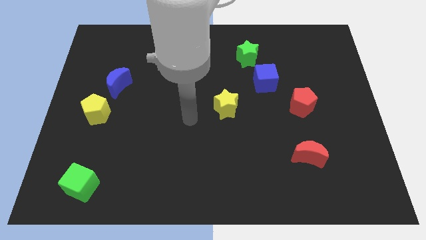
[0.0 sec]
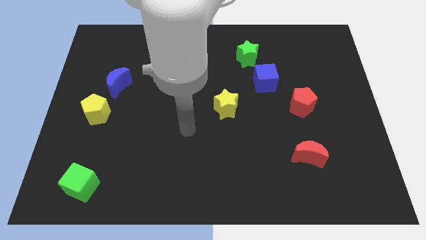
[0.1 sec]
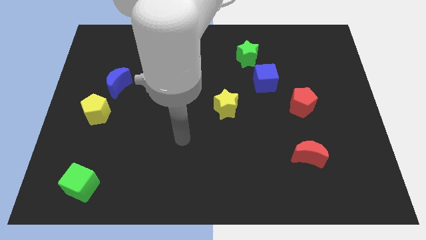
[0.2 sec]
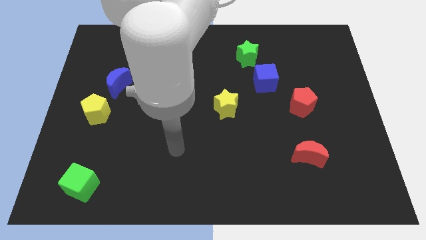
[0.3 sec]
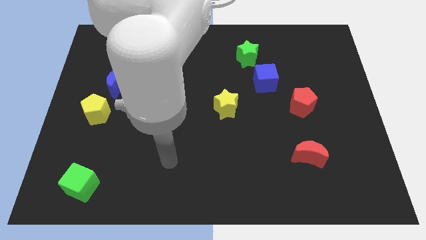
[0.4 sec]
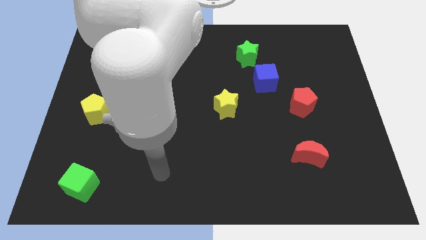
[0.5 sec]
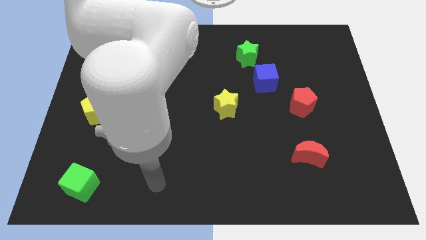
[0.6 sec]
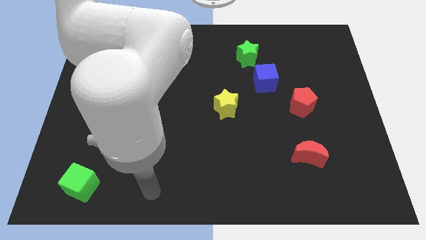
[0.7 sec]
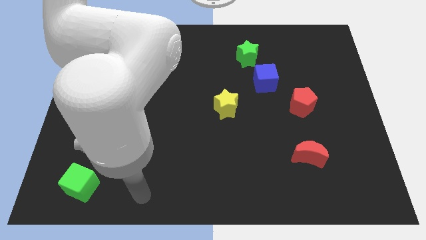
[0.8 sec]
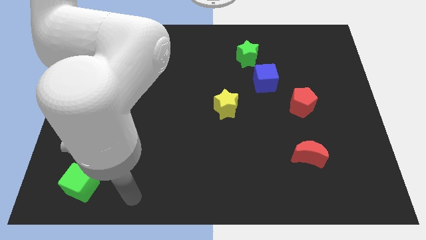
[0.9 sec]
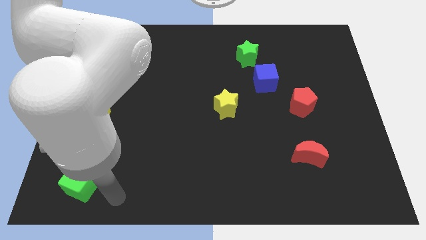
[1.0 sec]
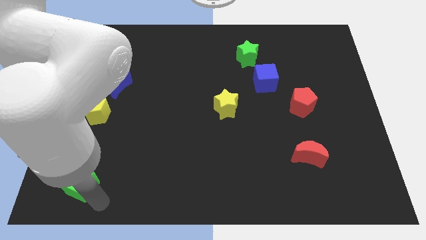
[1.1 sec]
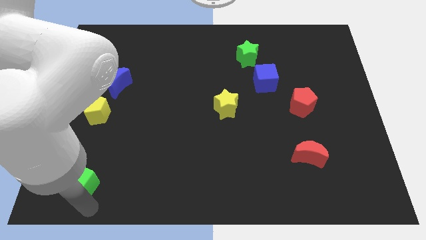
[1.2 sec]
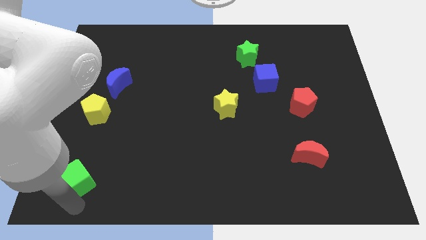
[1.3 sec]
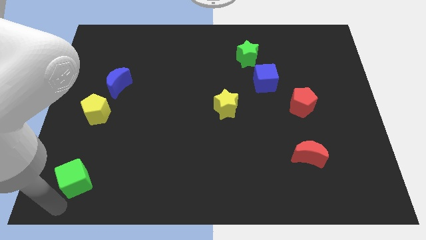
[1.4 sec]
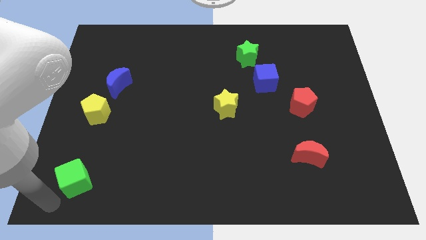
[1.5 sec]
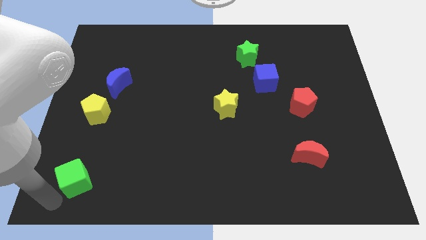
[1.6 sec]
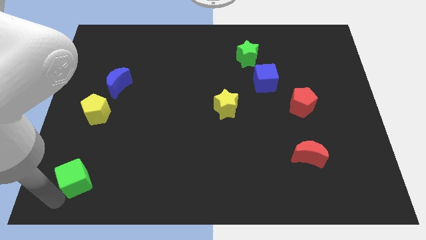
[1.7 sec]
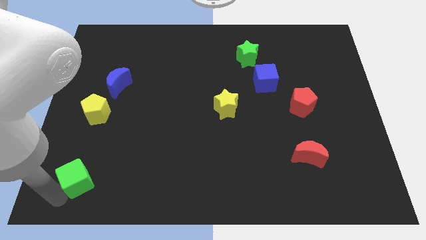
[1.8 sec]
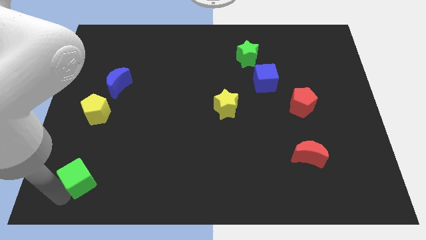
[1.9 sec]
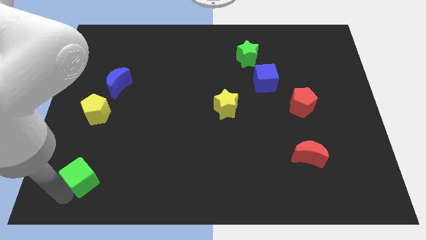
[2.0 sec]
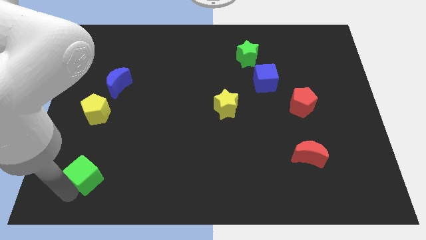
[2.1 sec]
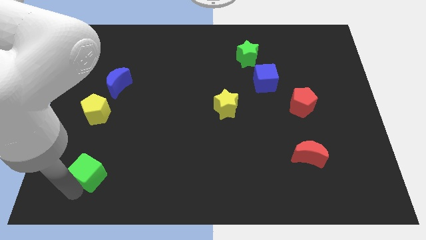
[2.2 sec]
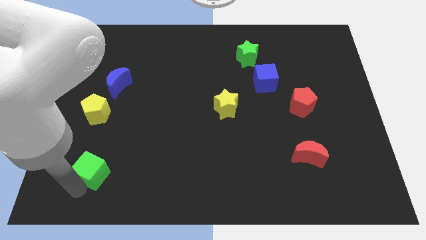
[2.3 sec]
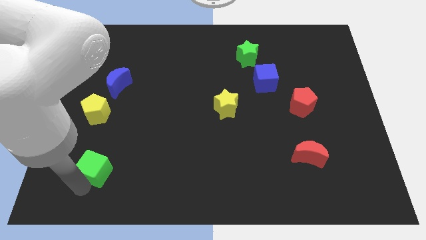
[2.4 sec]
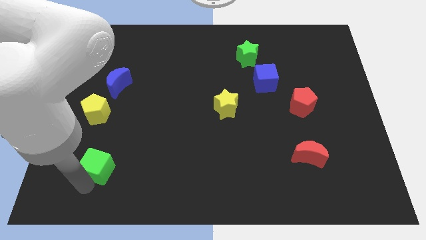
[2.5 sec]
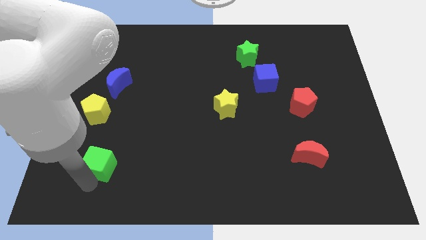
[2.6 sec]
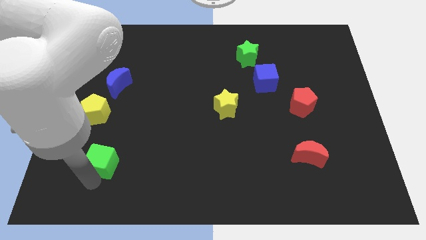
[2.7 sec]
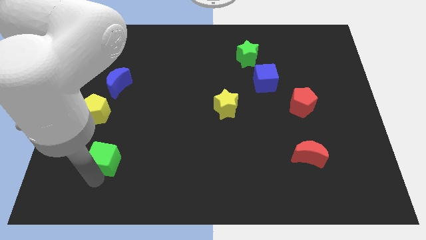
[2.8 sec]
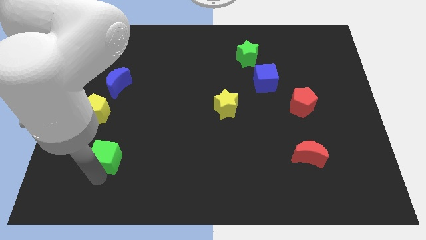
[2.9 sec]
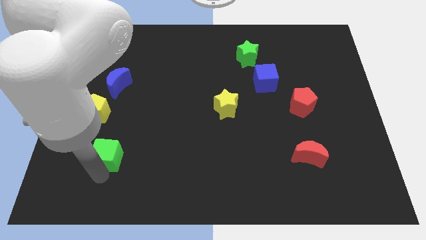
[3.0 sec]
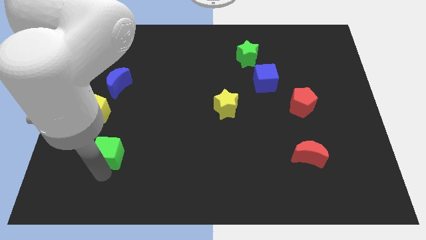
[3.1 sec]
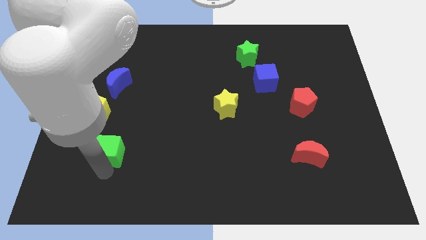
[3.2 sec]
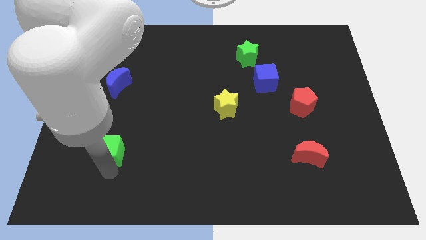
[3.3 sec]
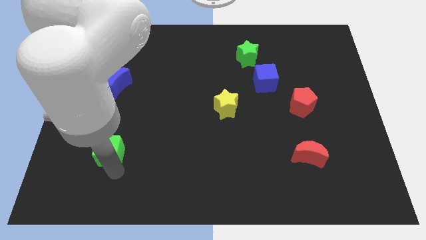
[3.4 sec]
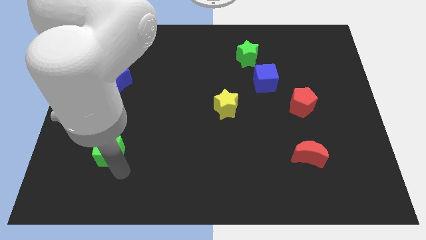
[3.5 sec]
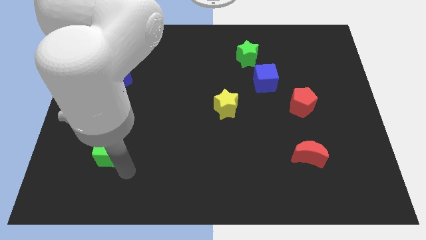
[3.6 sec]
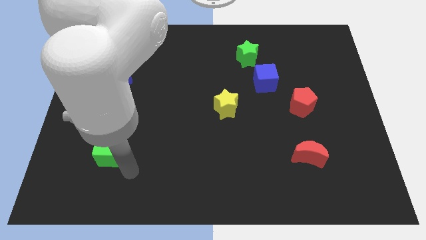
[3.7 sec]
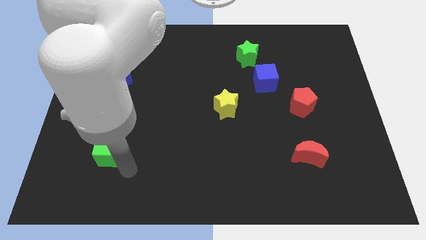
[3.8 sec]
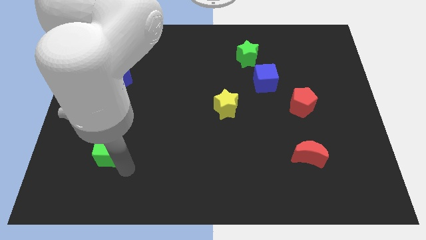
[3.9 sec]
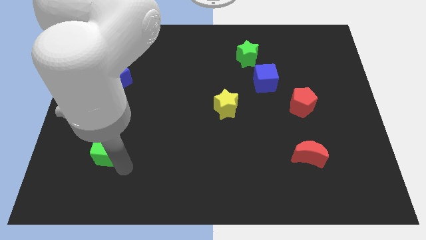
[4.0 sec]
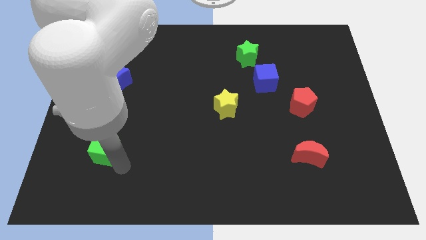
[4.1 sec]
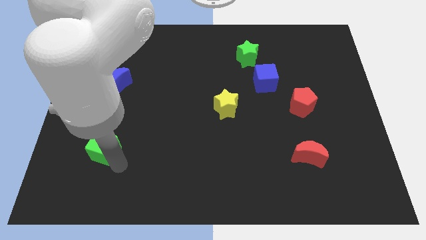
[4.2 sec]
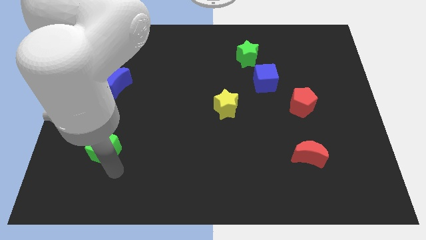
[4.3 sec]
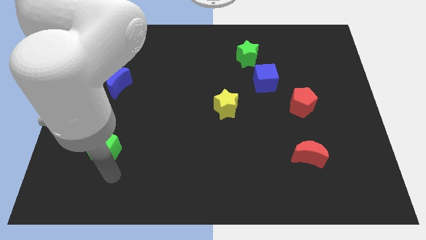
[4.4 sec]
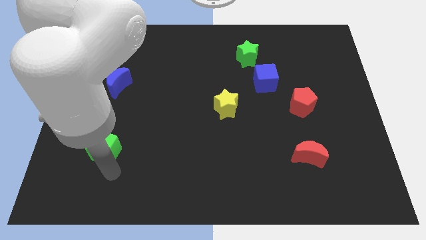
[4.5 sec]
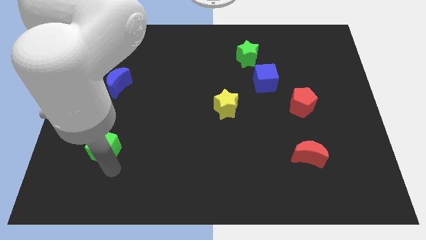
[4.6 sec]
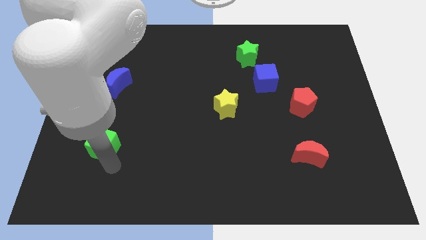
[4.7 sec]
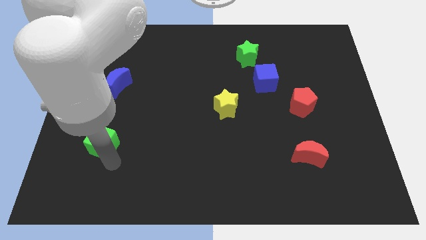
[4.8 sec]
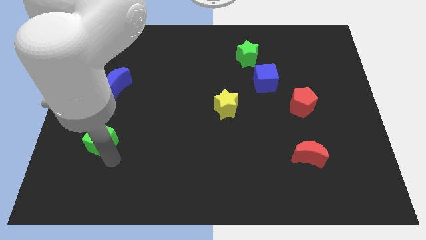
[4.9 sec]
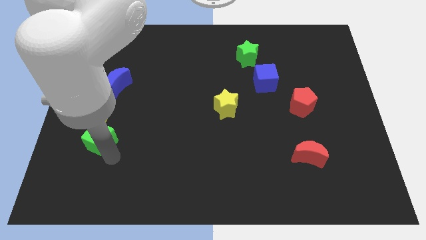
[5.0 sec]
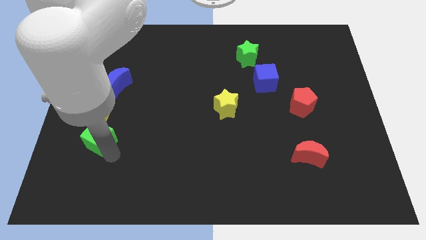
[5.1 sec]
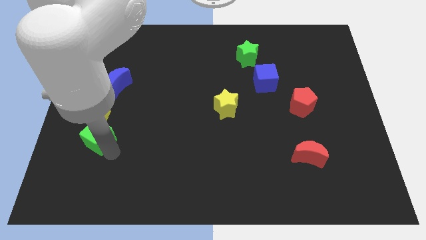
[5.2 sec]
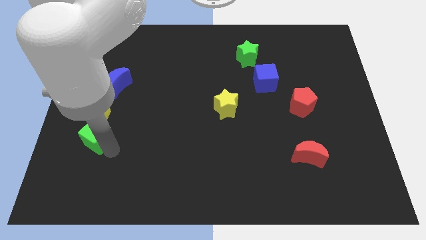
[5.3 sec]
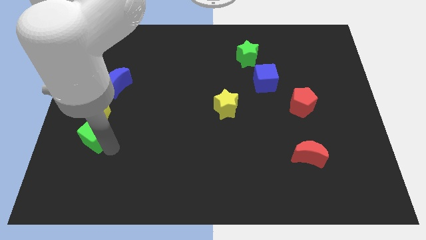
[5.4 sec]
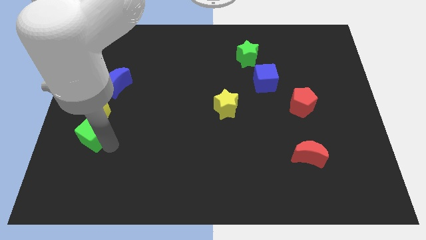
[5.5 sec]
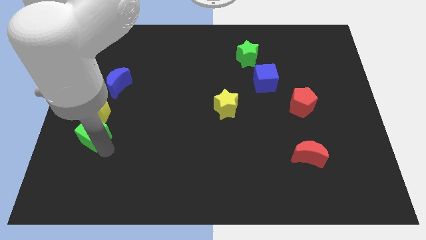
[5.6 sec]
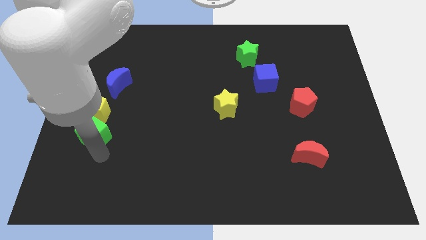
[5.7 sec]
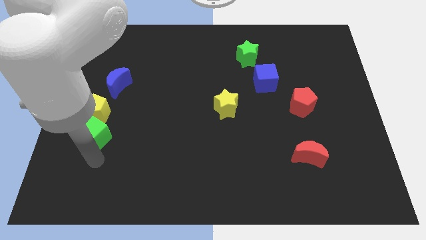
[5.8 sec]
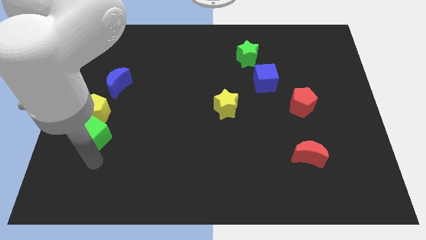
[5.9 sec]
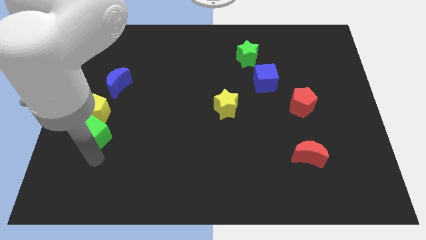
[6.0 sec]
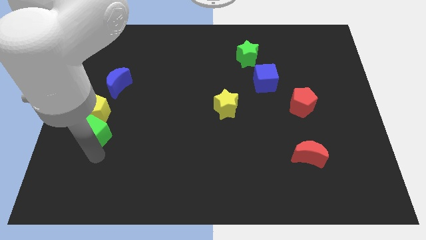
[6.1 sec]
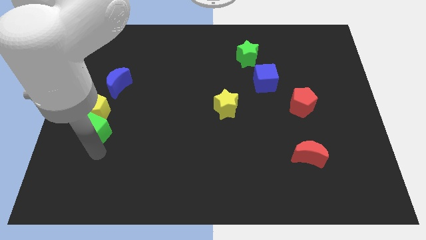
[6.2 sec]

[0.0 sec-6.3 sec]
put the green cube next to the yellow pentagon

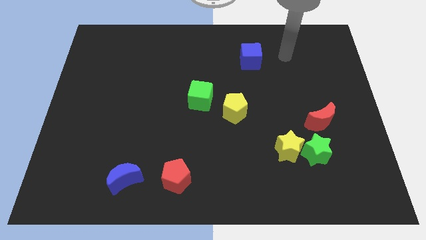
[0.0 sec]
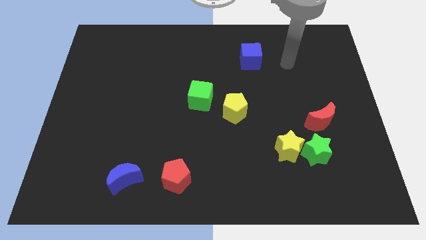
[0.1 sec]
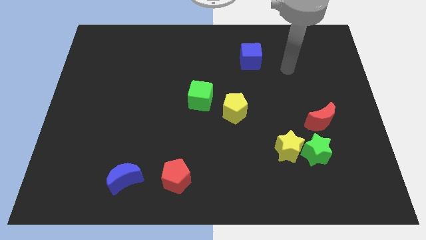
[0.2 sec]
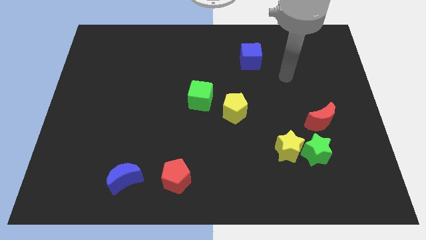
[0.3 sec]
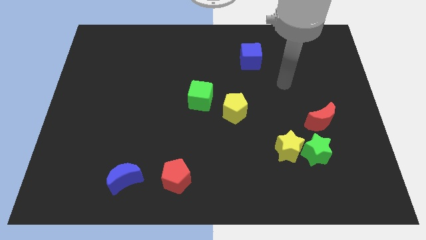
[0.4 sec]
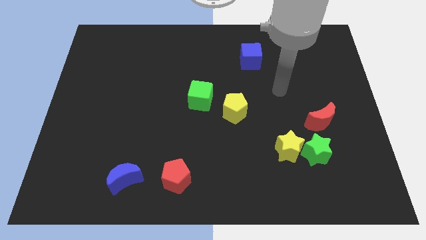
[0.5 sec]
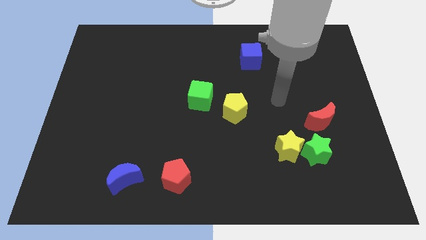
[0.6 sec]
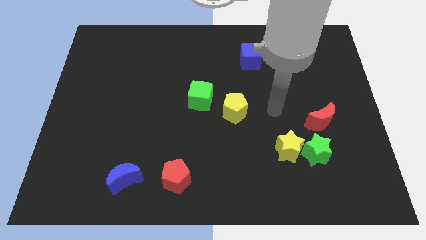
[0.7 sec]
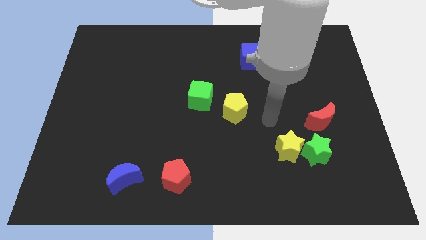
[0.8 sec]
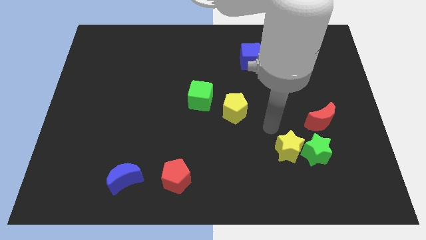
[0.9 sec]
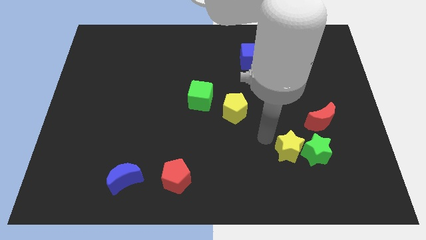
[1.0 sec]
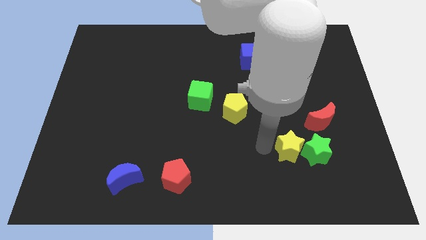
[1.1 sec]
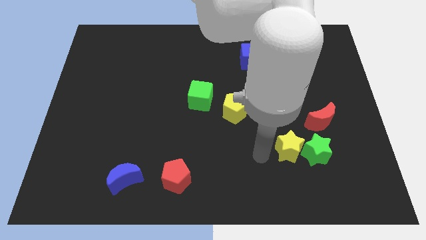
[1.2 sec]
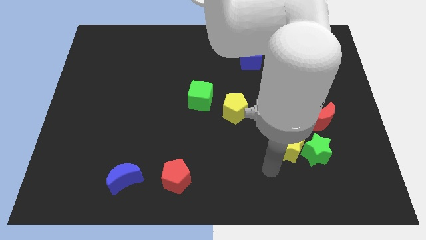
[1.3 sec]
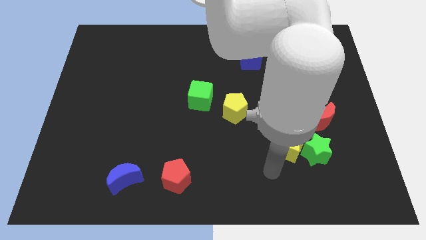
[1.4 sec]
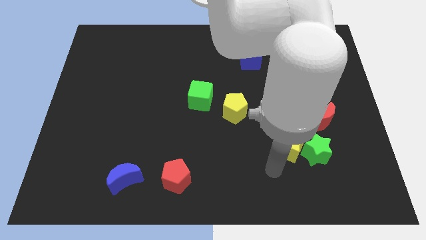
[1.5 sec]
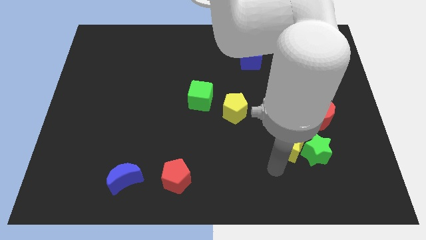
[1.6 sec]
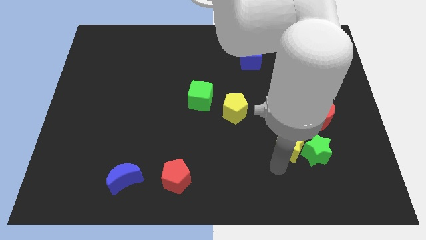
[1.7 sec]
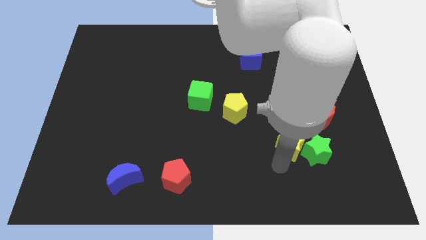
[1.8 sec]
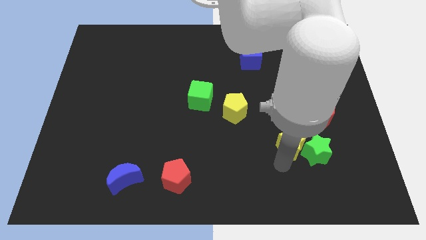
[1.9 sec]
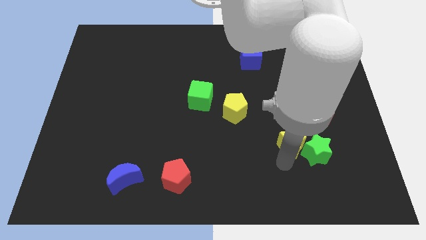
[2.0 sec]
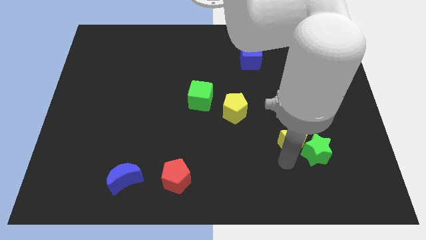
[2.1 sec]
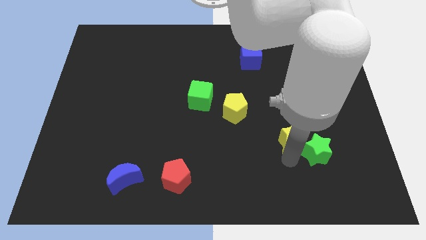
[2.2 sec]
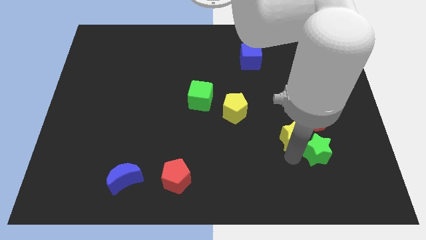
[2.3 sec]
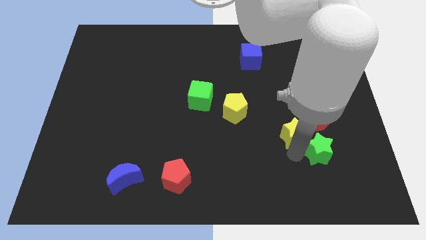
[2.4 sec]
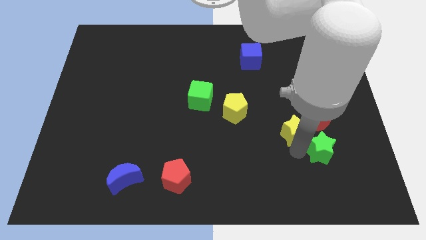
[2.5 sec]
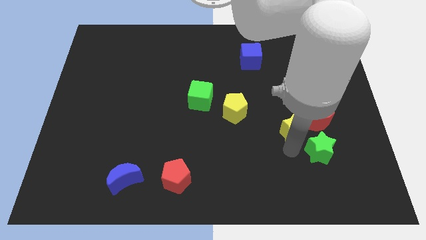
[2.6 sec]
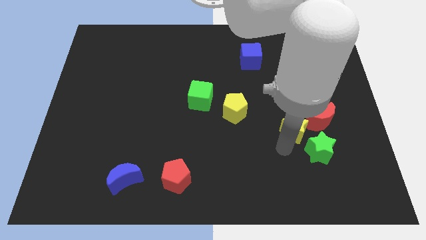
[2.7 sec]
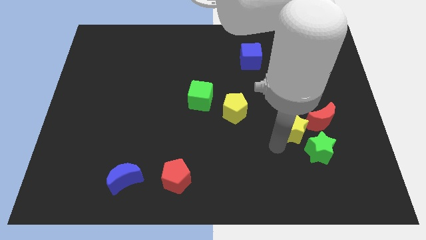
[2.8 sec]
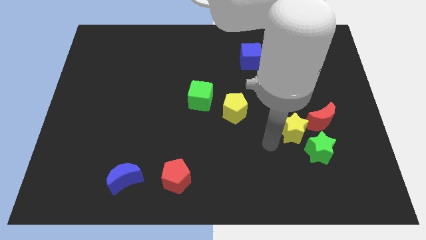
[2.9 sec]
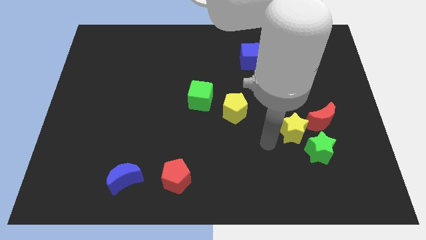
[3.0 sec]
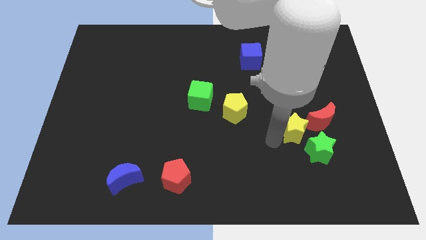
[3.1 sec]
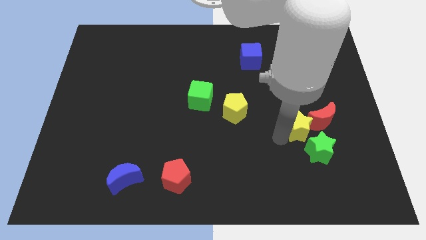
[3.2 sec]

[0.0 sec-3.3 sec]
slide the yellow star to the red moon
